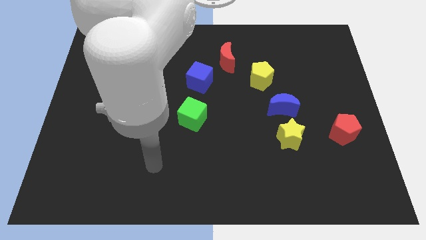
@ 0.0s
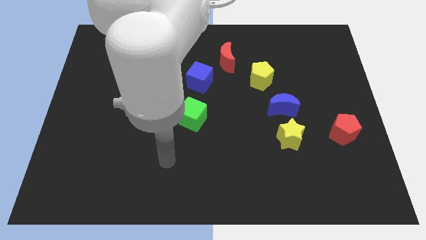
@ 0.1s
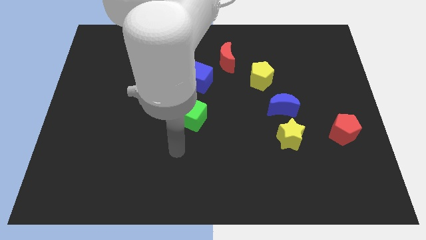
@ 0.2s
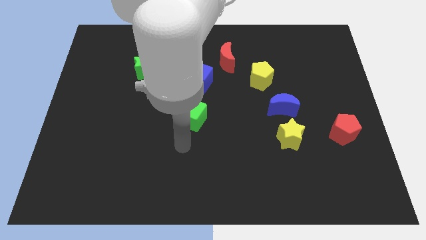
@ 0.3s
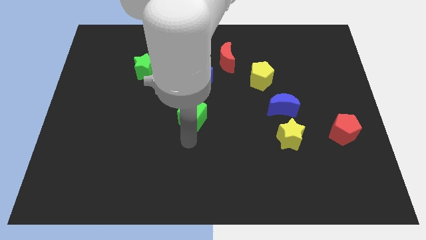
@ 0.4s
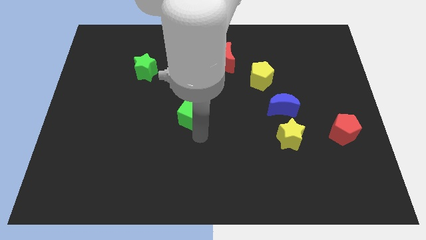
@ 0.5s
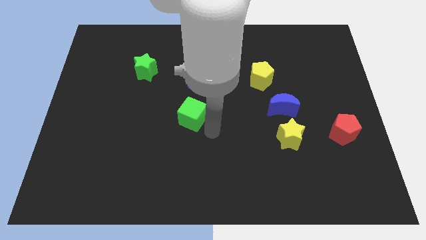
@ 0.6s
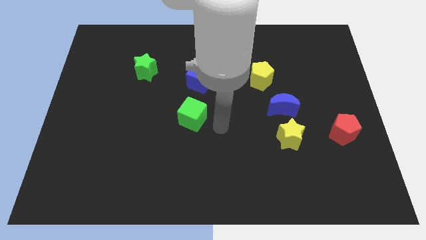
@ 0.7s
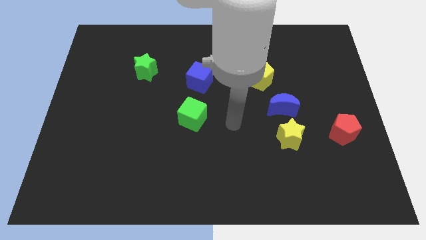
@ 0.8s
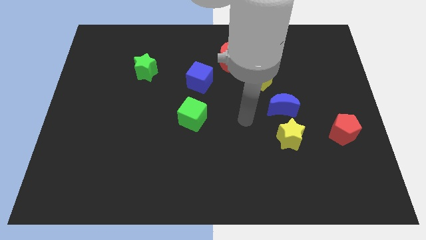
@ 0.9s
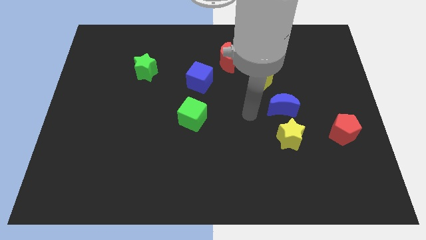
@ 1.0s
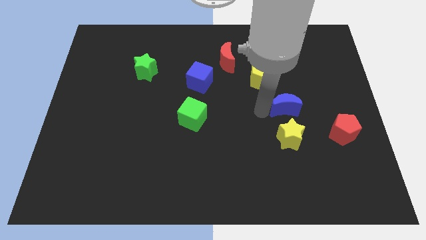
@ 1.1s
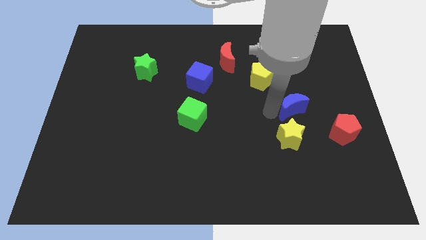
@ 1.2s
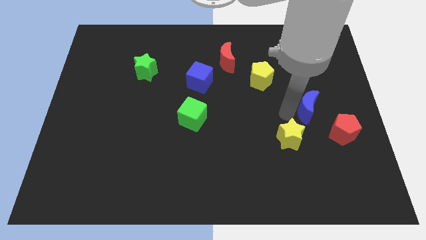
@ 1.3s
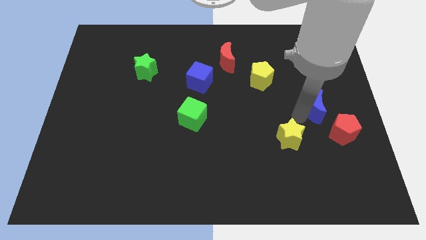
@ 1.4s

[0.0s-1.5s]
separate the yellow star from the blue moon

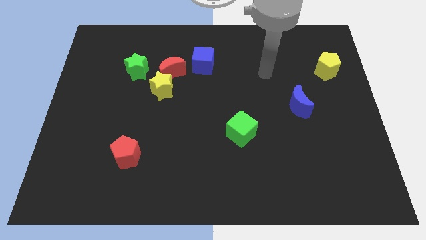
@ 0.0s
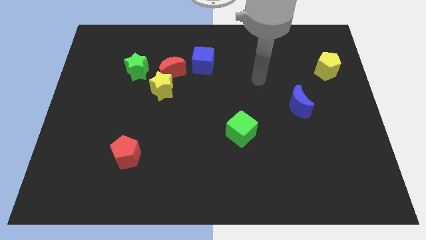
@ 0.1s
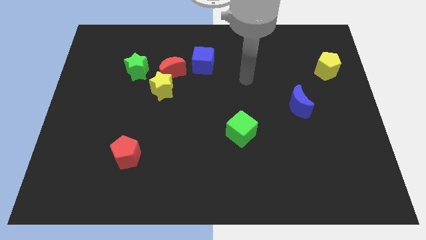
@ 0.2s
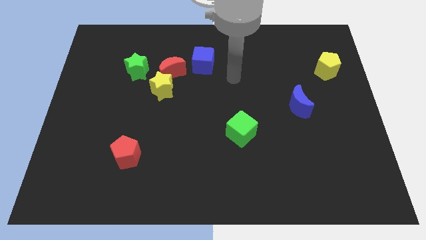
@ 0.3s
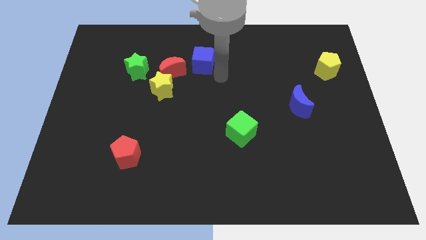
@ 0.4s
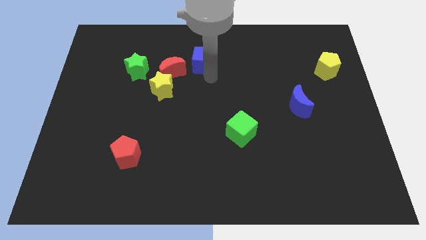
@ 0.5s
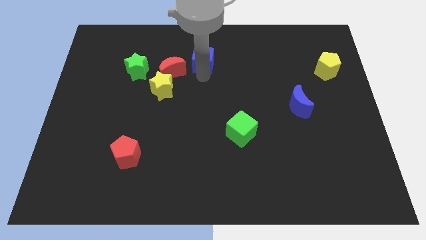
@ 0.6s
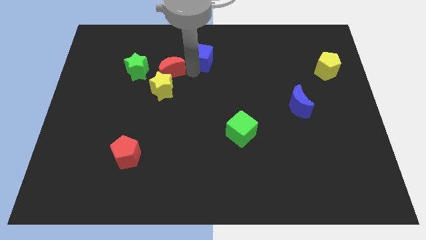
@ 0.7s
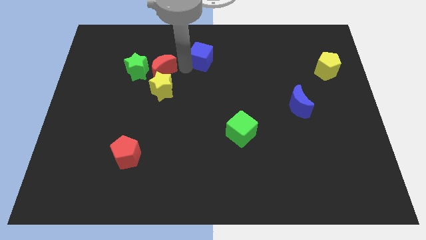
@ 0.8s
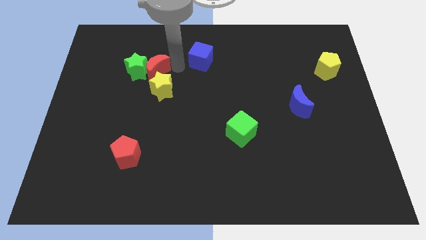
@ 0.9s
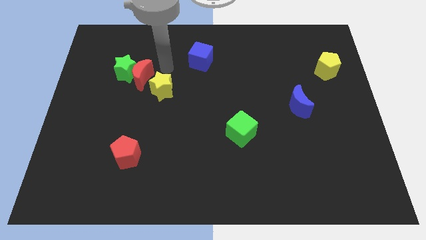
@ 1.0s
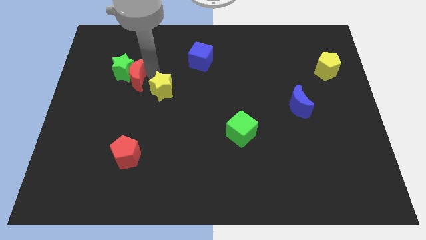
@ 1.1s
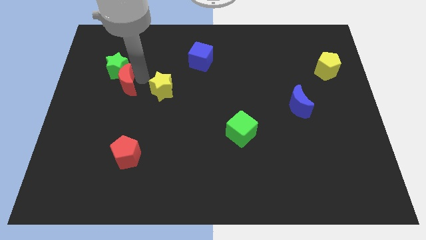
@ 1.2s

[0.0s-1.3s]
move the yellow star away from the red moon and green star

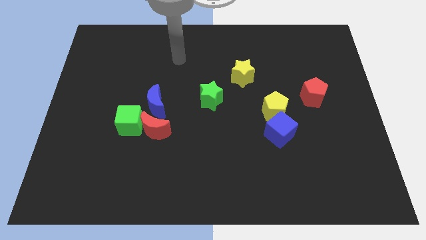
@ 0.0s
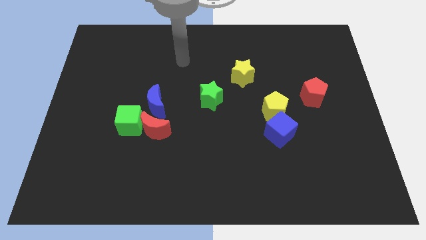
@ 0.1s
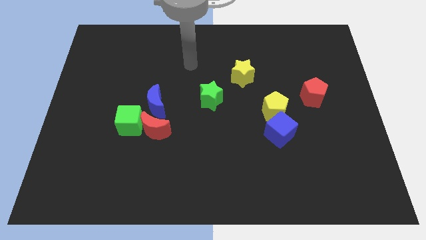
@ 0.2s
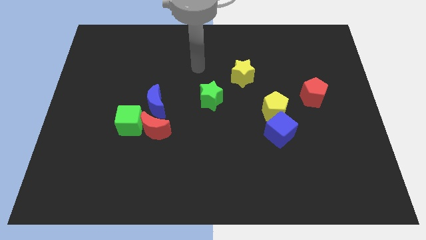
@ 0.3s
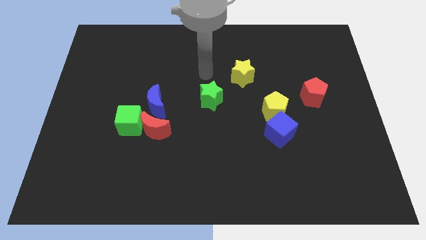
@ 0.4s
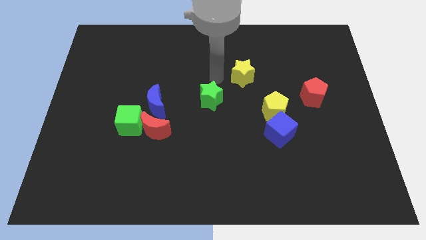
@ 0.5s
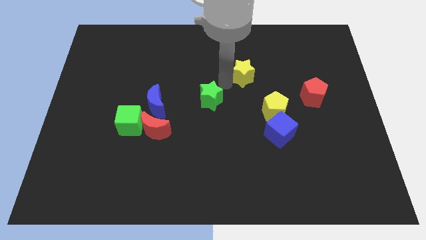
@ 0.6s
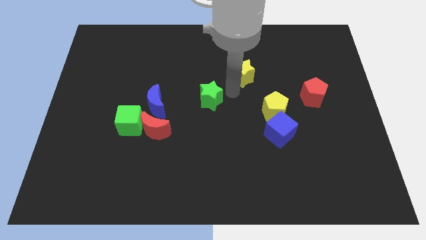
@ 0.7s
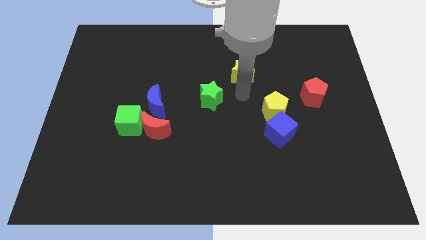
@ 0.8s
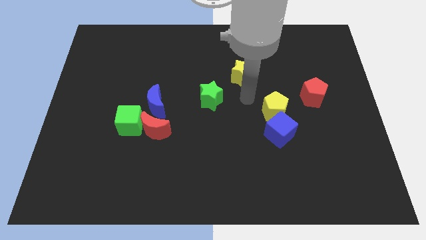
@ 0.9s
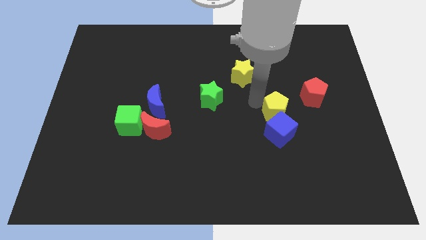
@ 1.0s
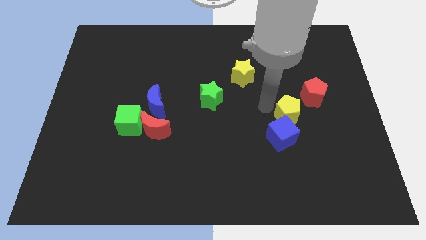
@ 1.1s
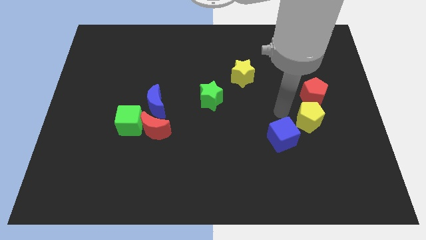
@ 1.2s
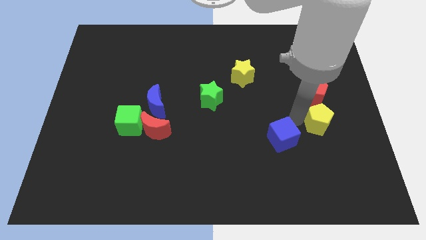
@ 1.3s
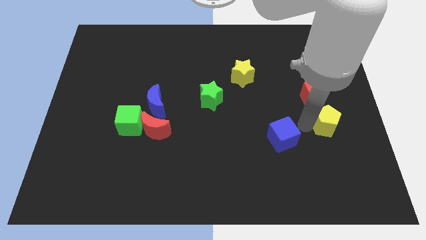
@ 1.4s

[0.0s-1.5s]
separate the blue cube from the yellow pentagon

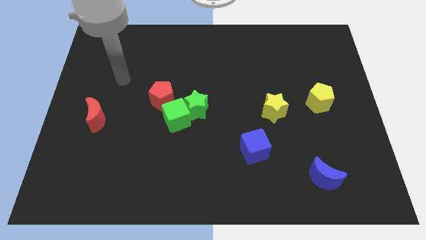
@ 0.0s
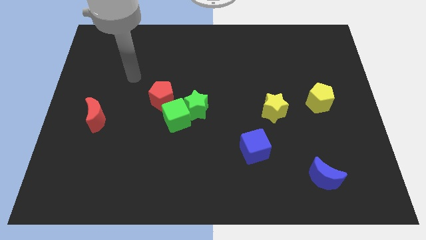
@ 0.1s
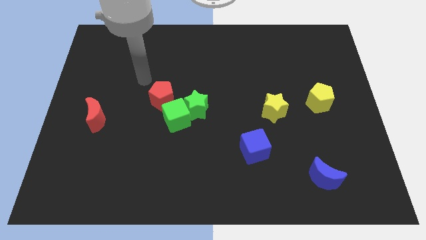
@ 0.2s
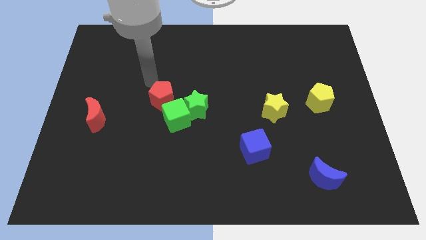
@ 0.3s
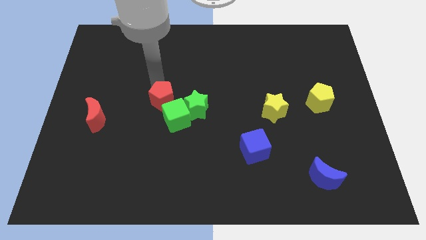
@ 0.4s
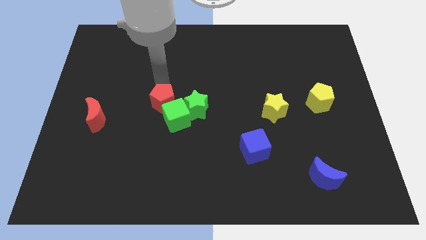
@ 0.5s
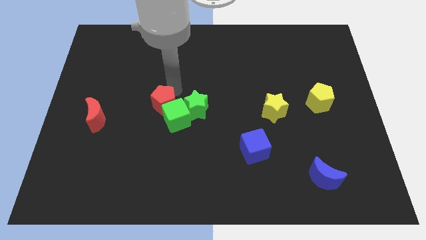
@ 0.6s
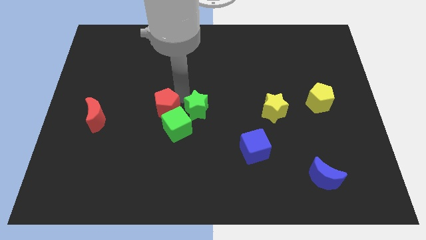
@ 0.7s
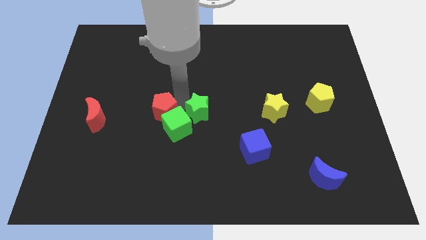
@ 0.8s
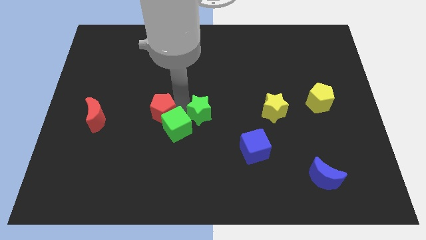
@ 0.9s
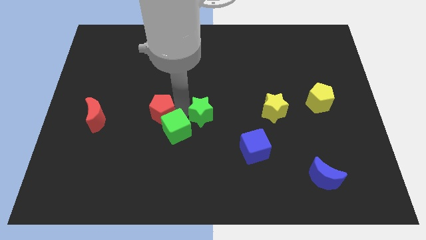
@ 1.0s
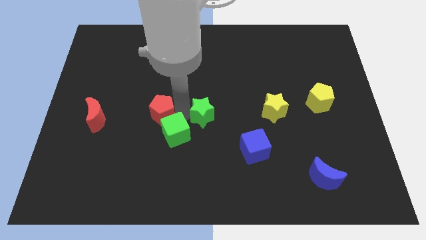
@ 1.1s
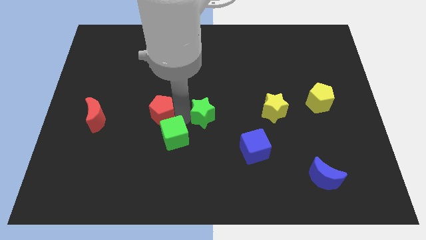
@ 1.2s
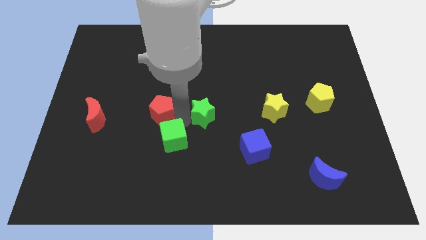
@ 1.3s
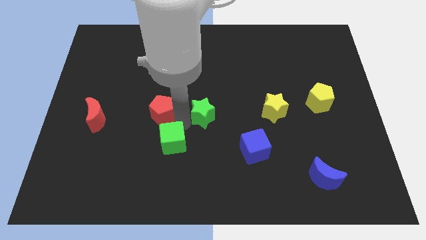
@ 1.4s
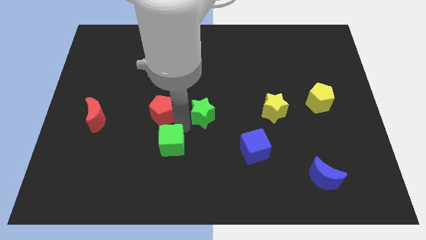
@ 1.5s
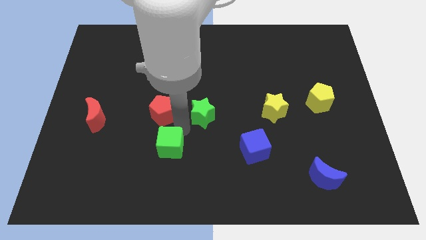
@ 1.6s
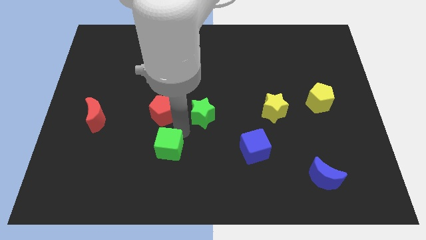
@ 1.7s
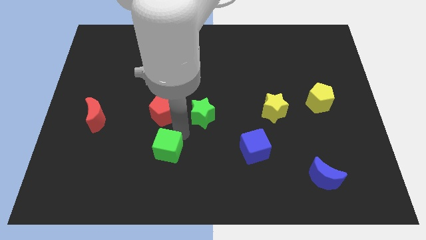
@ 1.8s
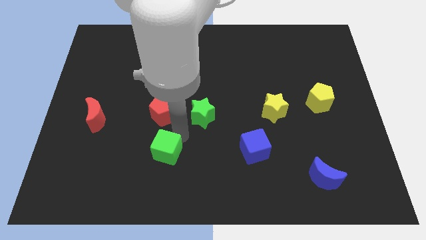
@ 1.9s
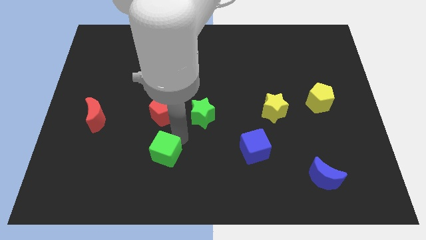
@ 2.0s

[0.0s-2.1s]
pull the green cube apart from the green star and red pentagon

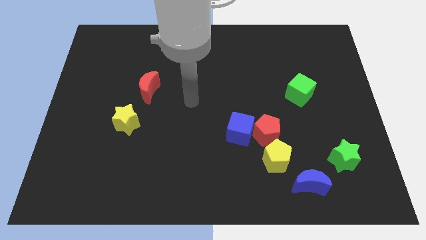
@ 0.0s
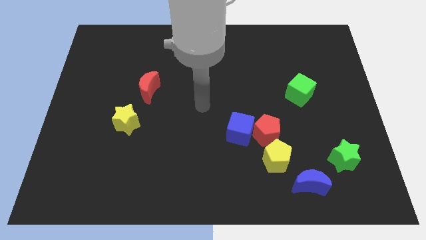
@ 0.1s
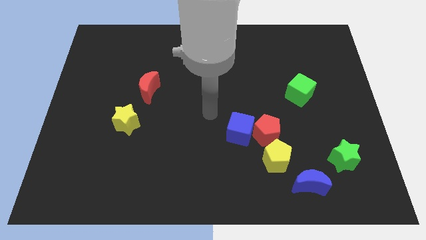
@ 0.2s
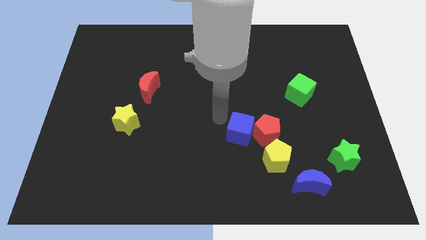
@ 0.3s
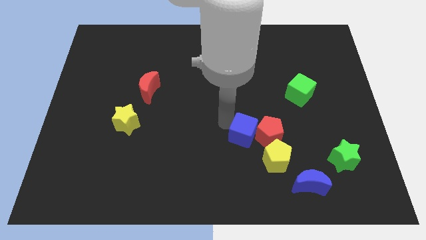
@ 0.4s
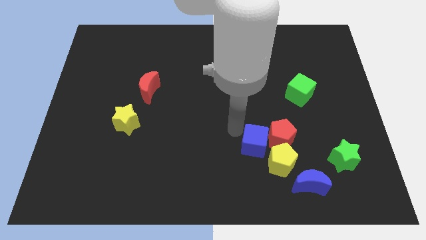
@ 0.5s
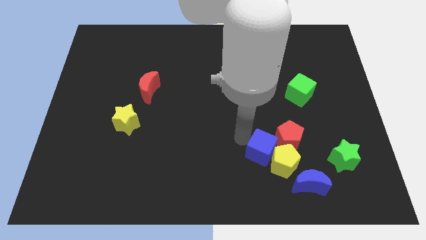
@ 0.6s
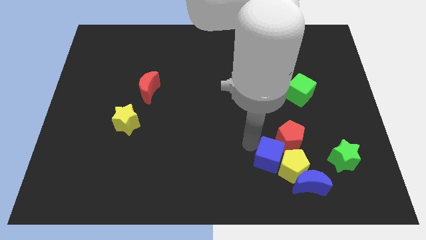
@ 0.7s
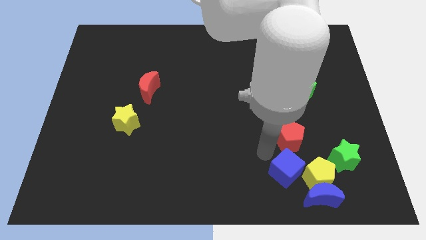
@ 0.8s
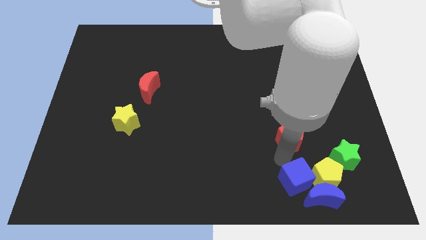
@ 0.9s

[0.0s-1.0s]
separate the red pentagon from the blue cube and yellow pentagon

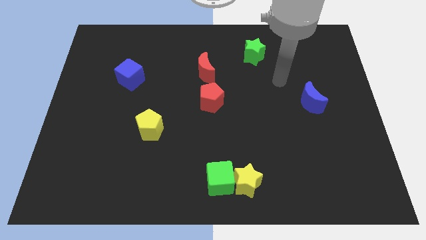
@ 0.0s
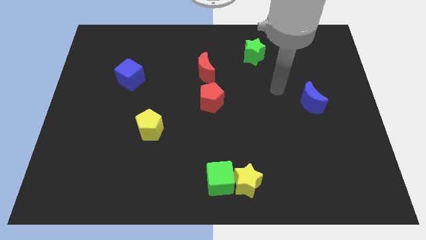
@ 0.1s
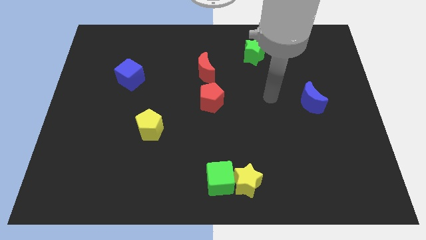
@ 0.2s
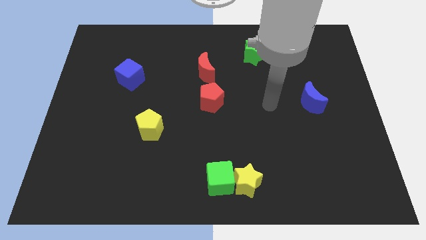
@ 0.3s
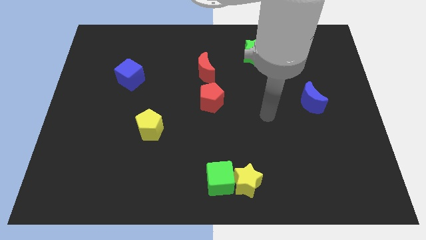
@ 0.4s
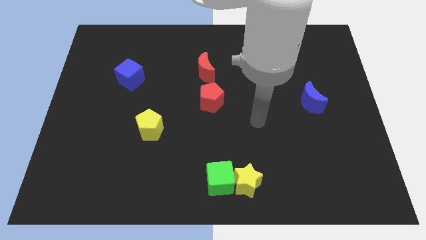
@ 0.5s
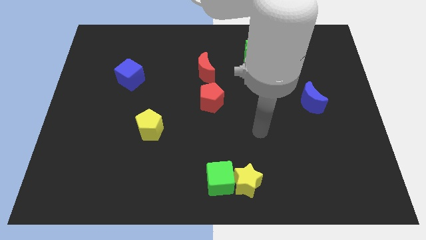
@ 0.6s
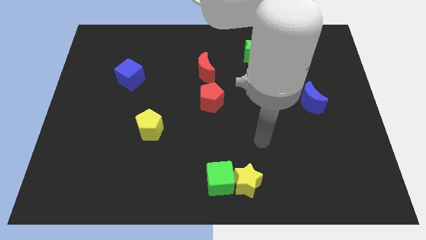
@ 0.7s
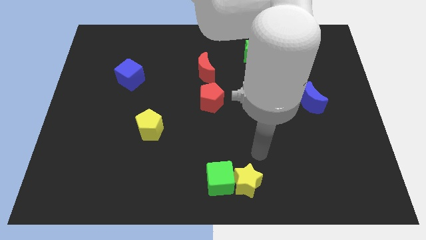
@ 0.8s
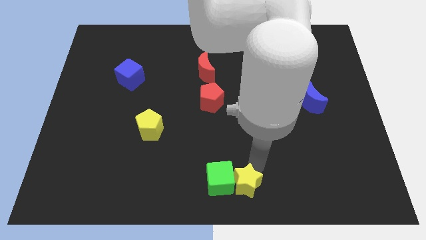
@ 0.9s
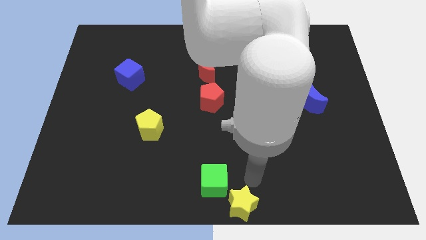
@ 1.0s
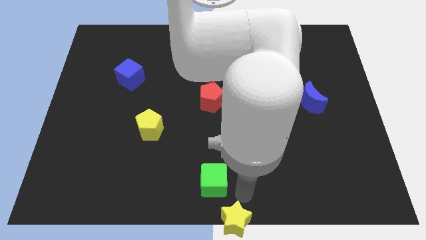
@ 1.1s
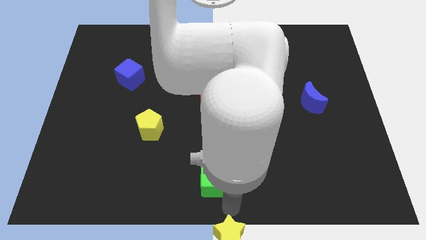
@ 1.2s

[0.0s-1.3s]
move the green cube away from the yellow star

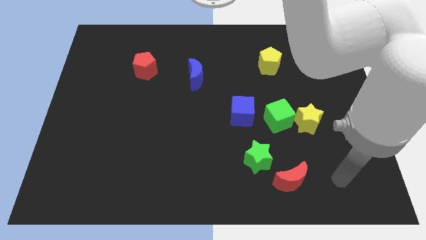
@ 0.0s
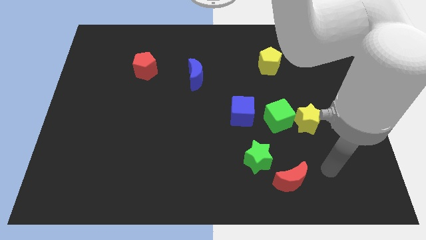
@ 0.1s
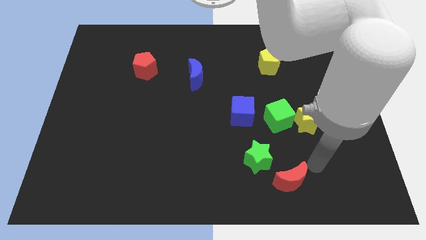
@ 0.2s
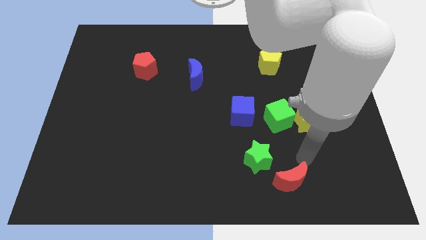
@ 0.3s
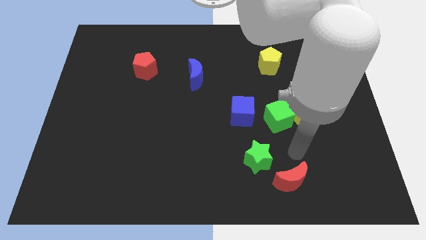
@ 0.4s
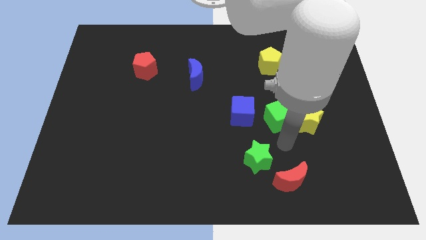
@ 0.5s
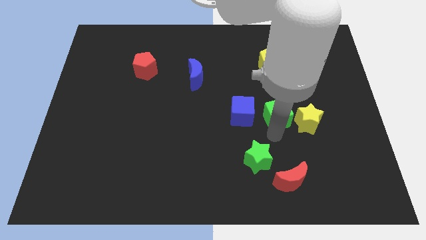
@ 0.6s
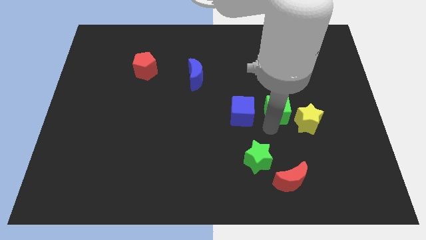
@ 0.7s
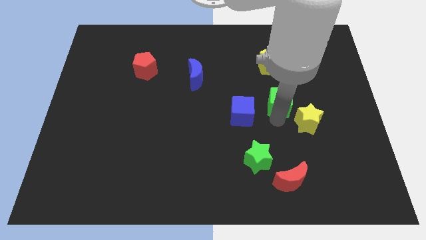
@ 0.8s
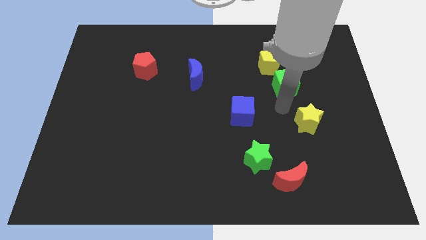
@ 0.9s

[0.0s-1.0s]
pull the yellow star apart from the green cube
